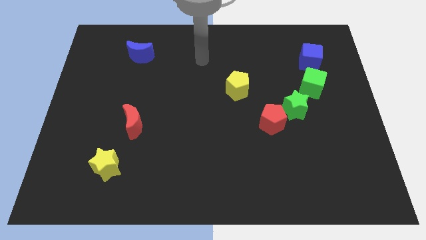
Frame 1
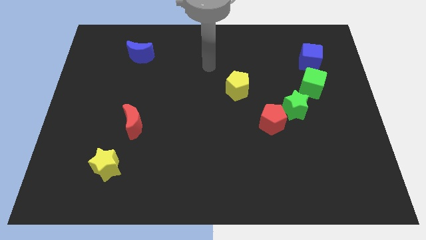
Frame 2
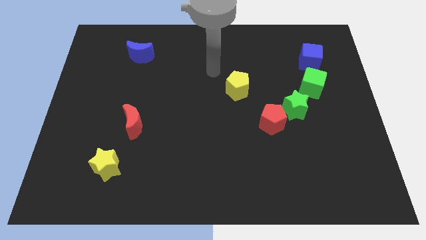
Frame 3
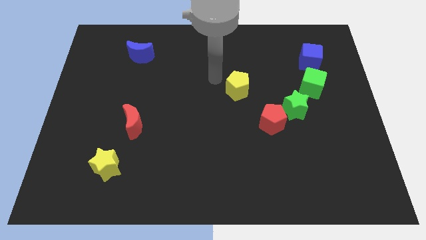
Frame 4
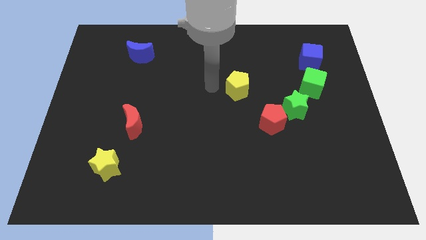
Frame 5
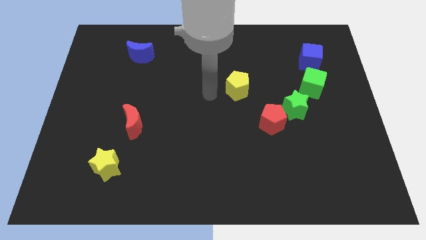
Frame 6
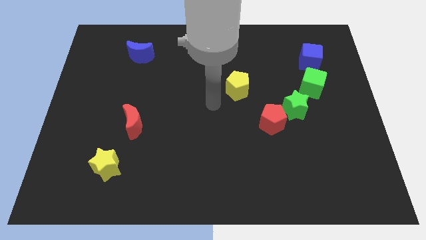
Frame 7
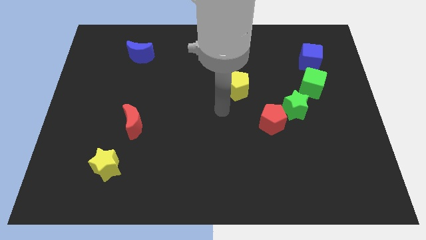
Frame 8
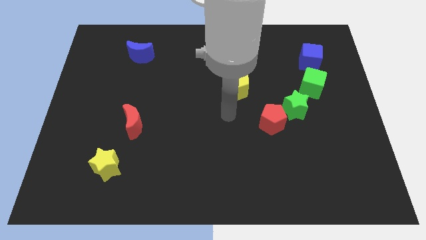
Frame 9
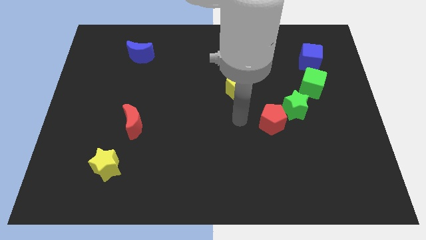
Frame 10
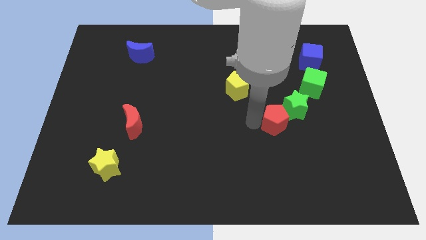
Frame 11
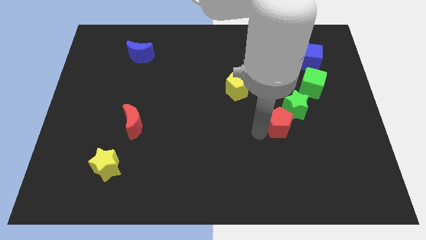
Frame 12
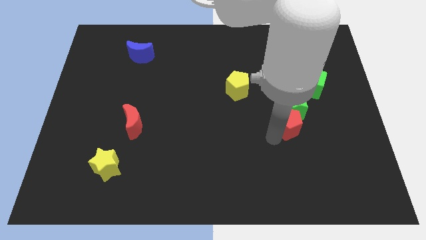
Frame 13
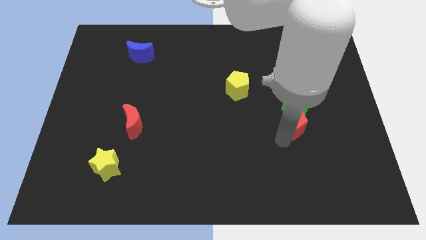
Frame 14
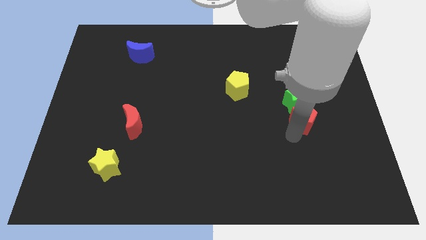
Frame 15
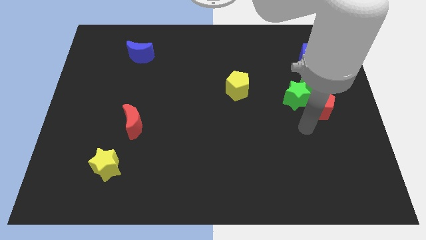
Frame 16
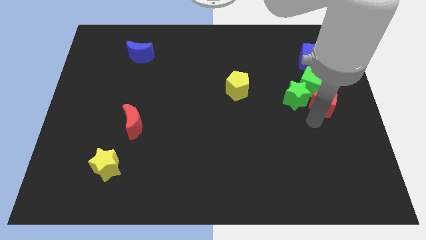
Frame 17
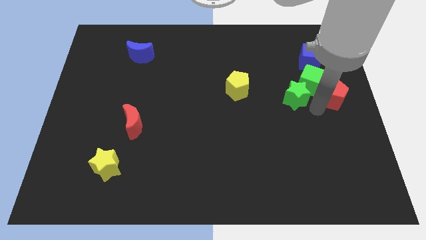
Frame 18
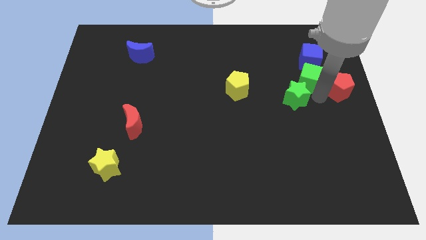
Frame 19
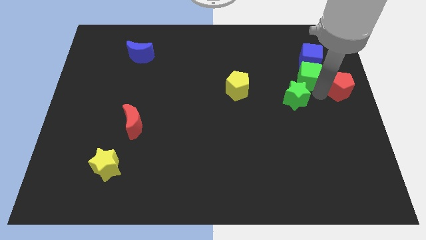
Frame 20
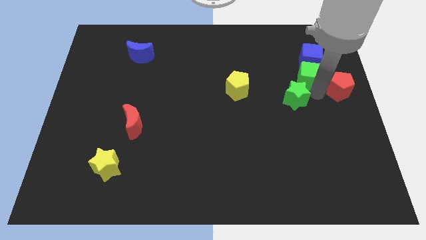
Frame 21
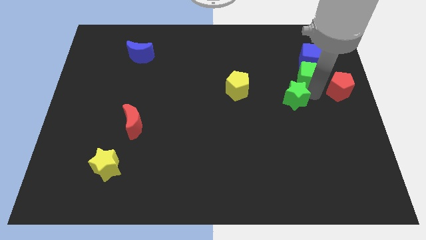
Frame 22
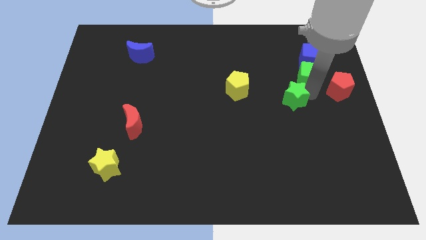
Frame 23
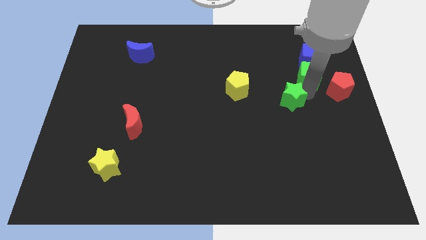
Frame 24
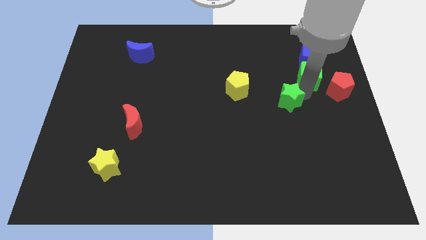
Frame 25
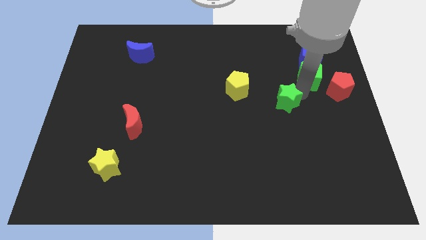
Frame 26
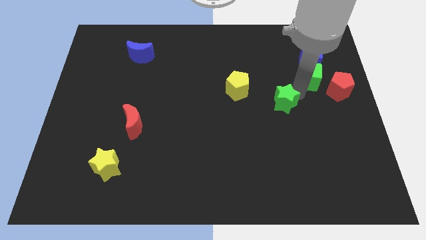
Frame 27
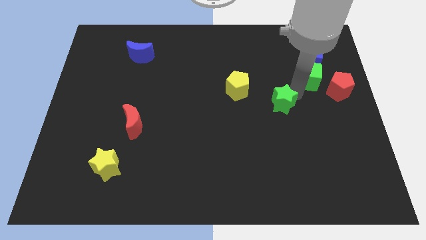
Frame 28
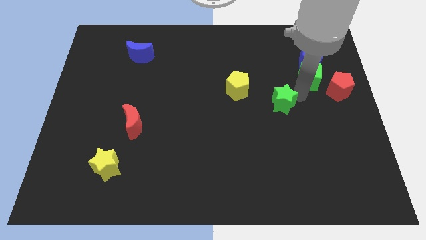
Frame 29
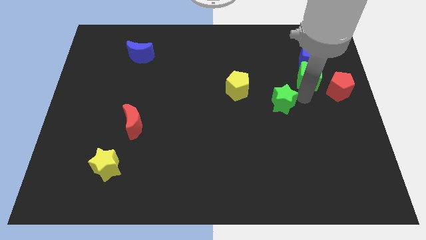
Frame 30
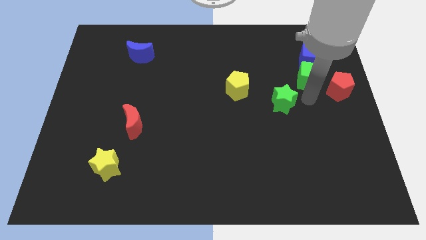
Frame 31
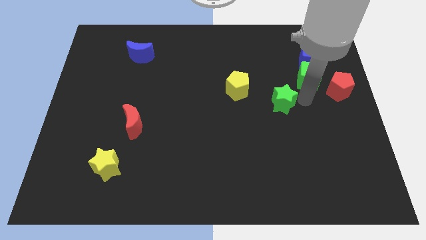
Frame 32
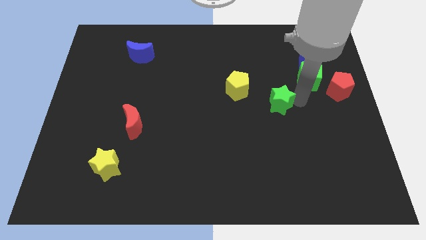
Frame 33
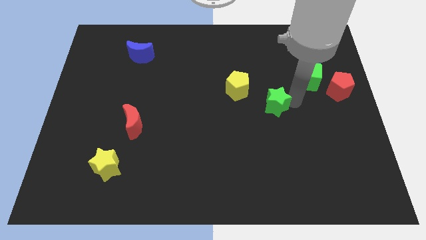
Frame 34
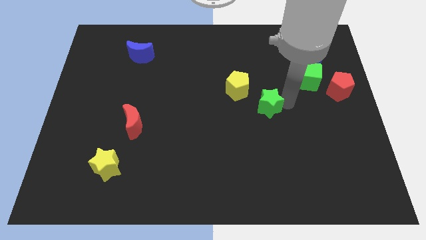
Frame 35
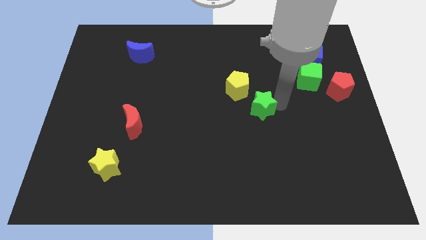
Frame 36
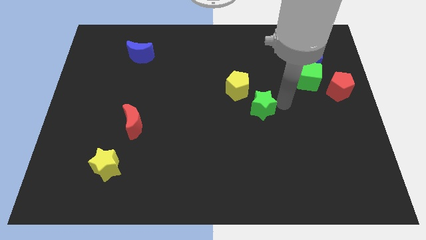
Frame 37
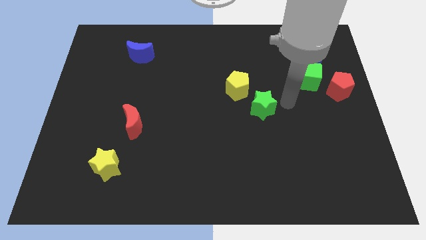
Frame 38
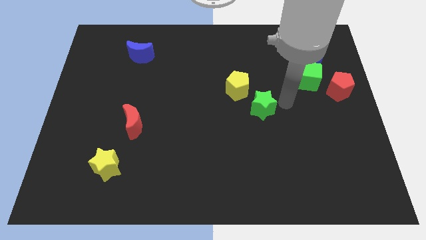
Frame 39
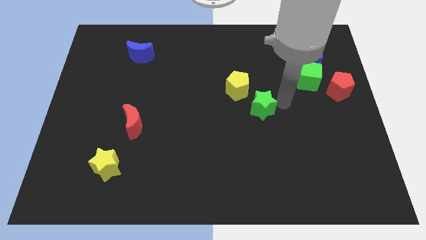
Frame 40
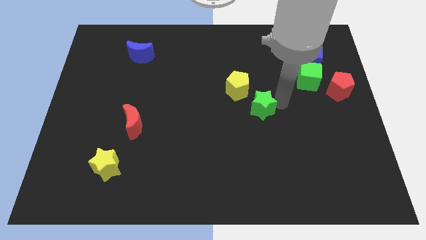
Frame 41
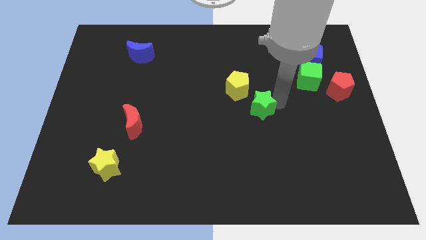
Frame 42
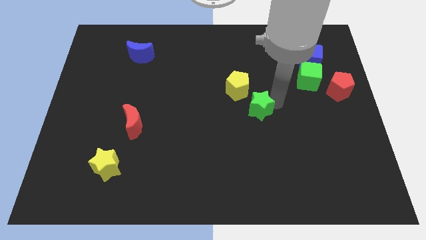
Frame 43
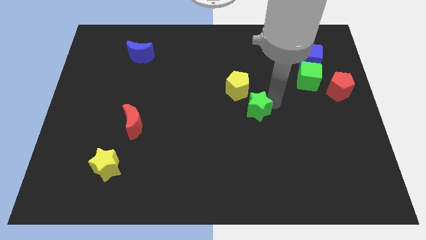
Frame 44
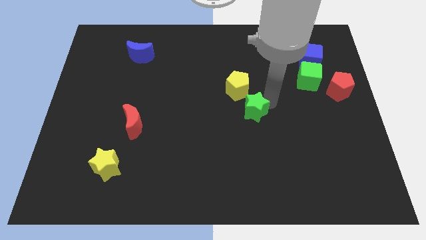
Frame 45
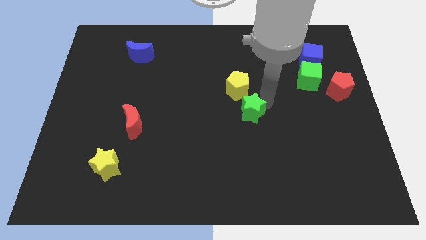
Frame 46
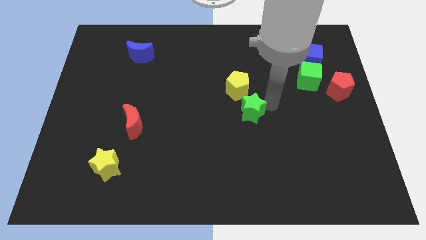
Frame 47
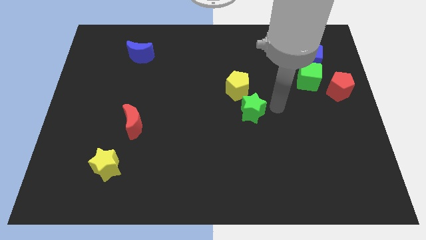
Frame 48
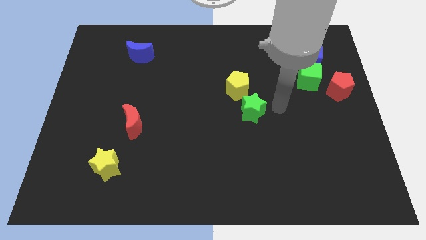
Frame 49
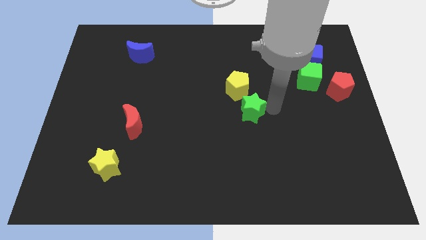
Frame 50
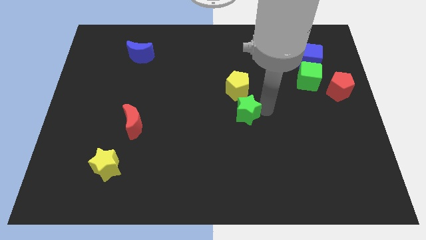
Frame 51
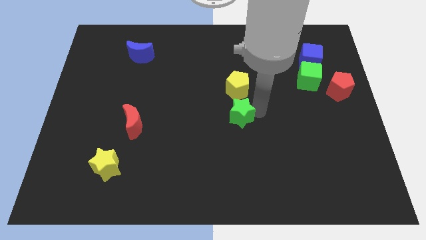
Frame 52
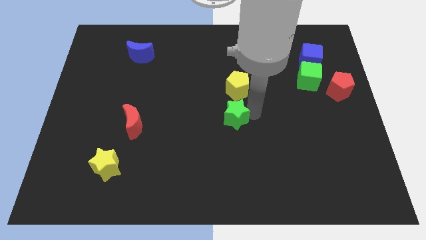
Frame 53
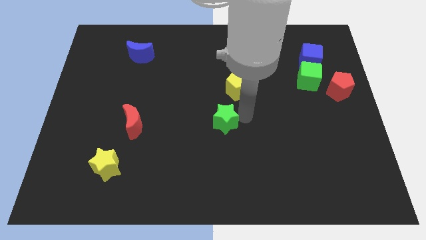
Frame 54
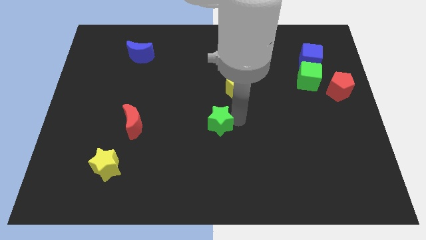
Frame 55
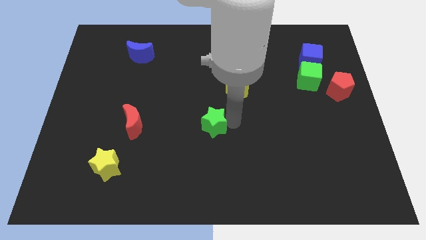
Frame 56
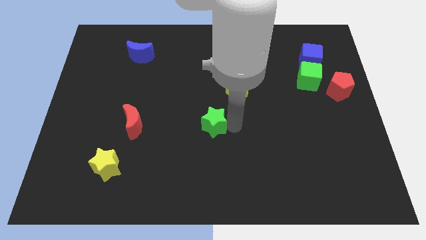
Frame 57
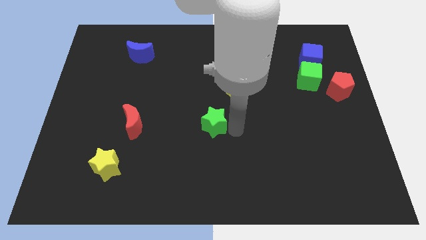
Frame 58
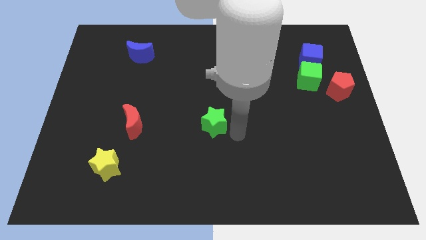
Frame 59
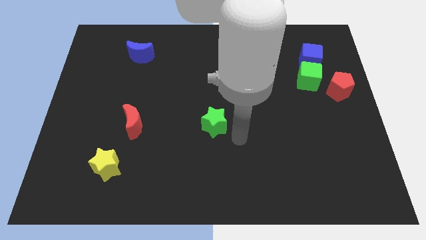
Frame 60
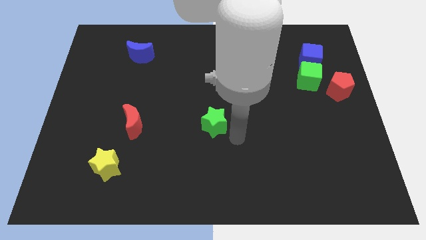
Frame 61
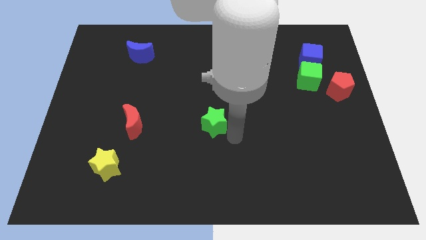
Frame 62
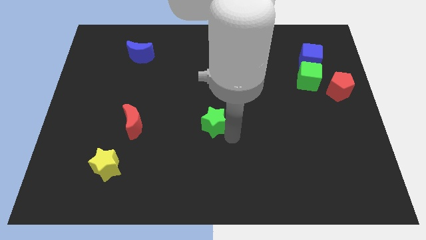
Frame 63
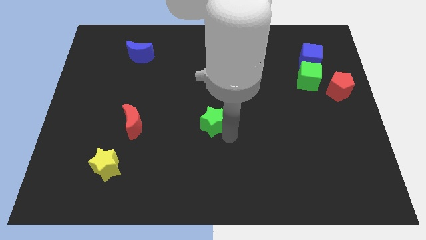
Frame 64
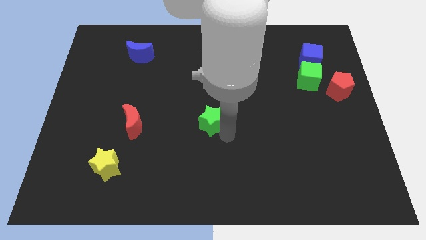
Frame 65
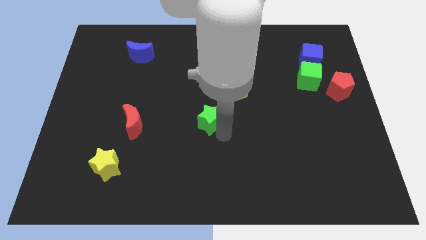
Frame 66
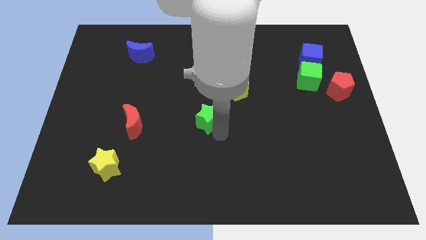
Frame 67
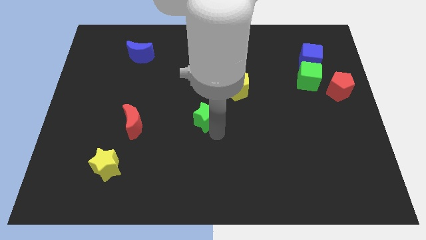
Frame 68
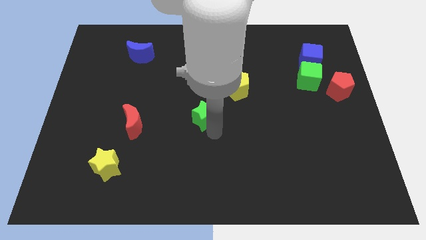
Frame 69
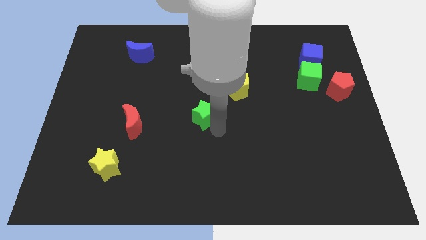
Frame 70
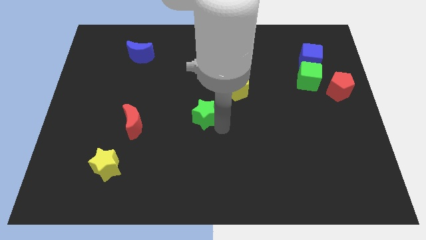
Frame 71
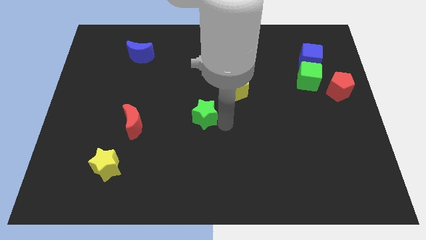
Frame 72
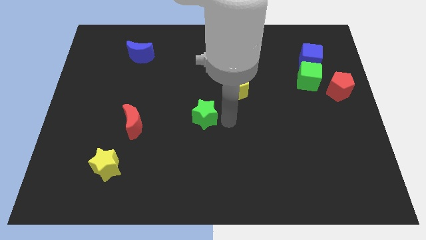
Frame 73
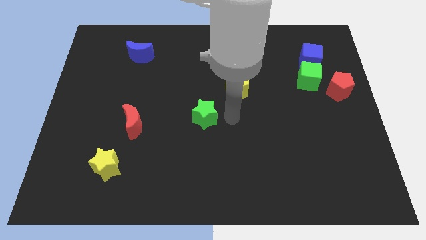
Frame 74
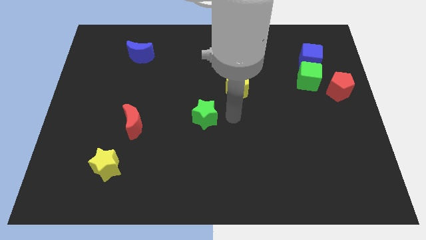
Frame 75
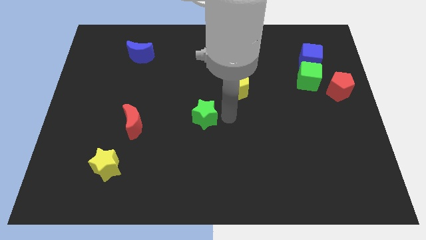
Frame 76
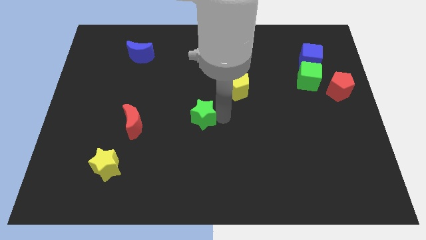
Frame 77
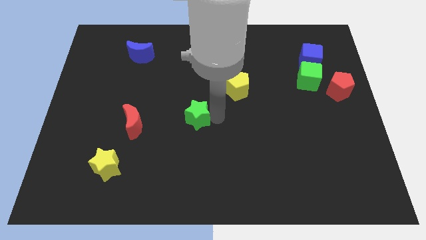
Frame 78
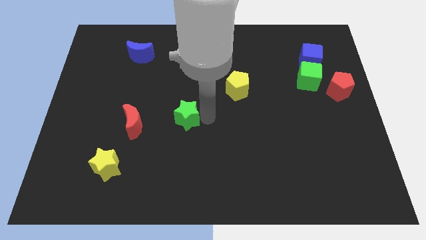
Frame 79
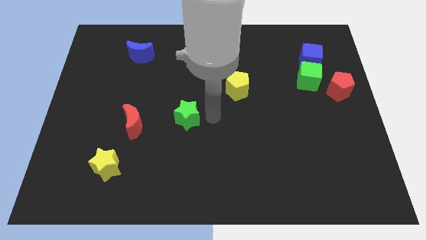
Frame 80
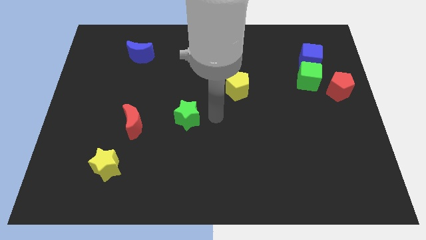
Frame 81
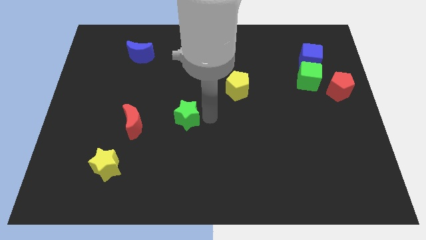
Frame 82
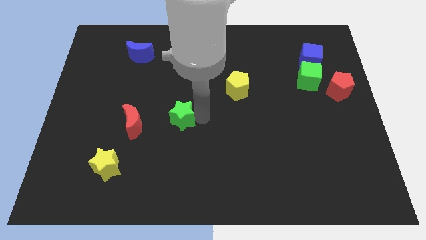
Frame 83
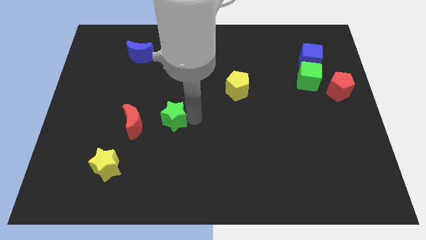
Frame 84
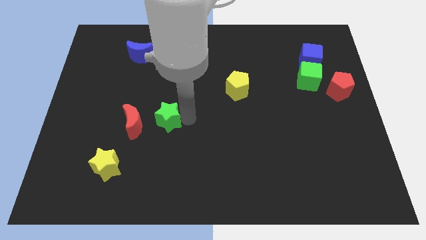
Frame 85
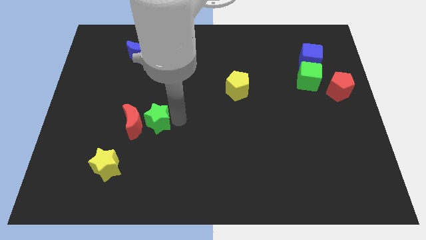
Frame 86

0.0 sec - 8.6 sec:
put the green star next to the red moon
